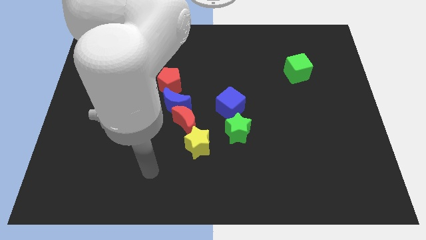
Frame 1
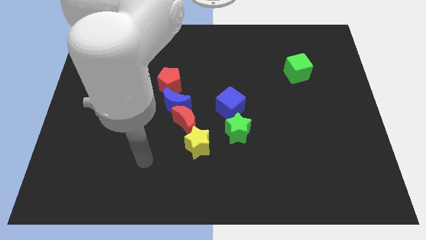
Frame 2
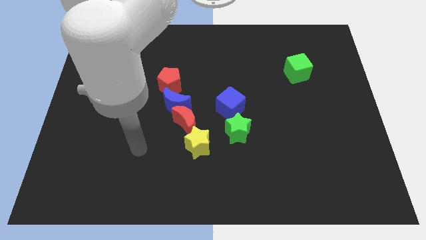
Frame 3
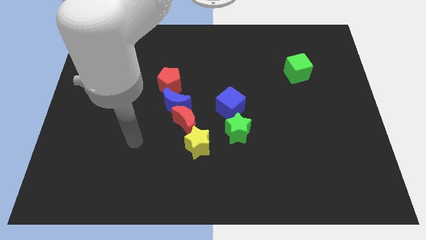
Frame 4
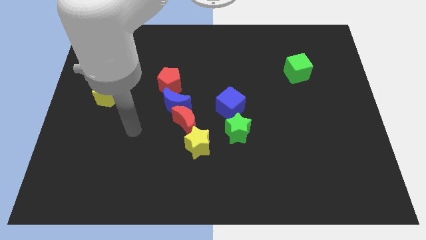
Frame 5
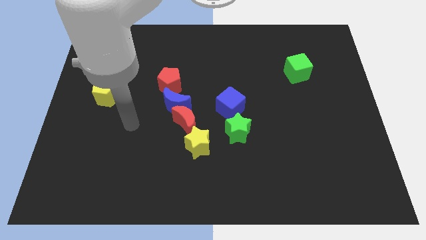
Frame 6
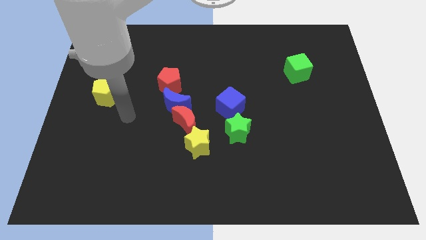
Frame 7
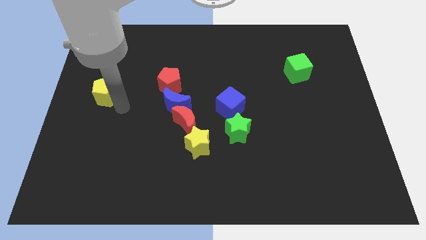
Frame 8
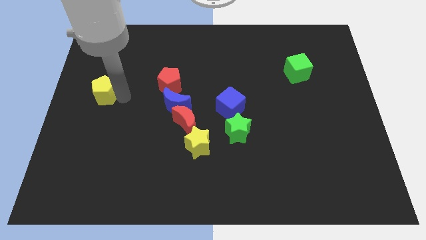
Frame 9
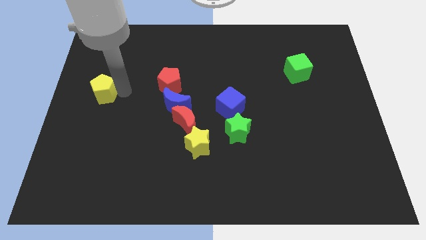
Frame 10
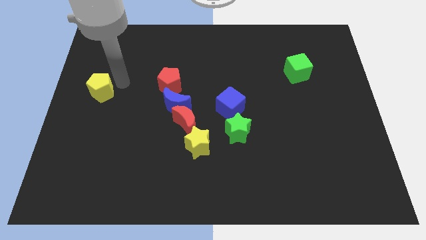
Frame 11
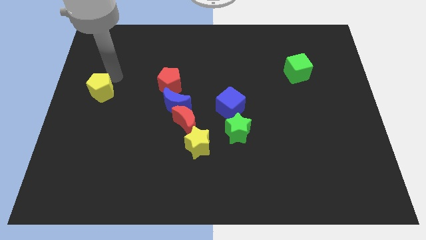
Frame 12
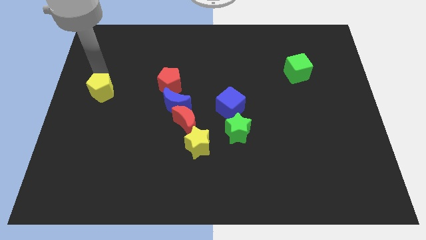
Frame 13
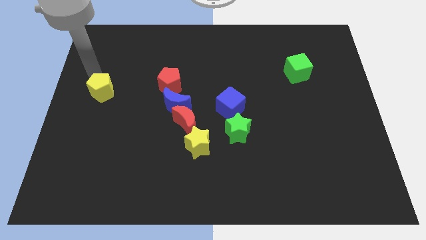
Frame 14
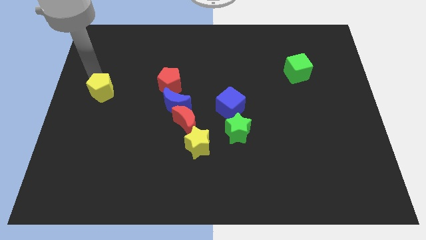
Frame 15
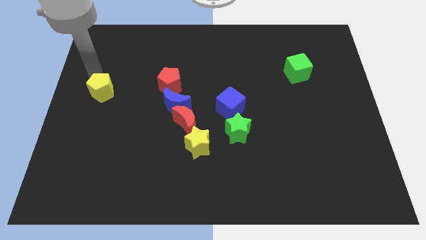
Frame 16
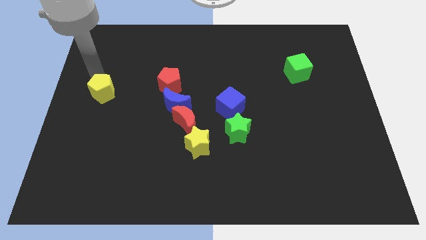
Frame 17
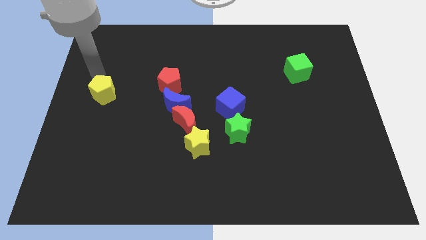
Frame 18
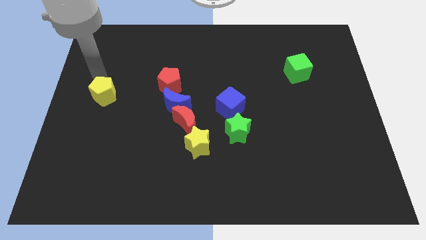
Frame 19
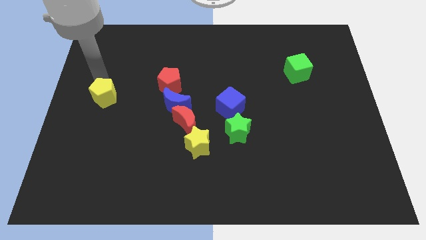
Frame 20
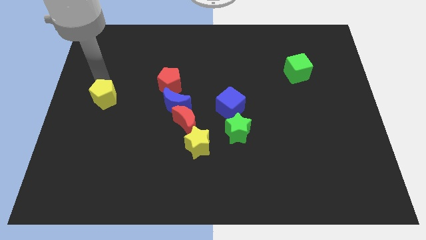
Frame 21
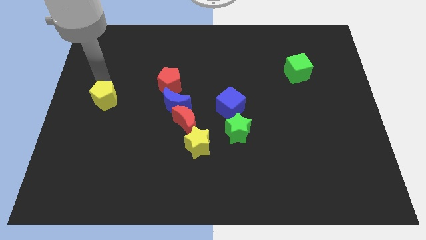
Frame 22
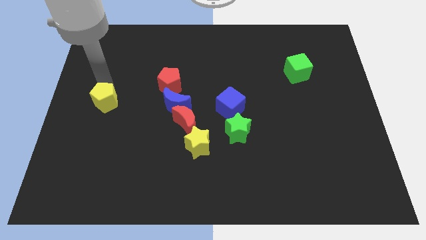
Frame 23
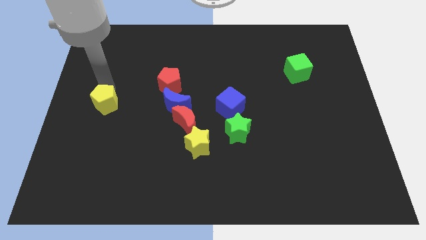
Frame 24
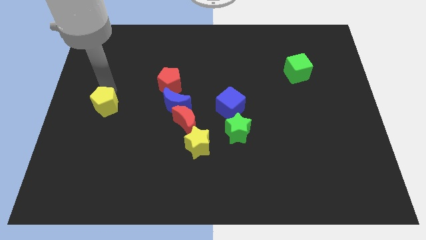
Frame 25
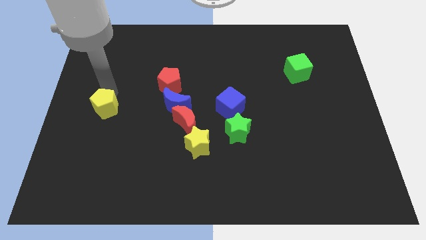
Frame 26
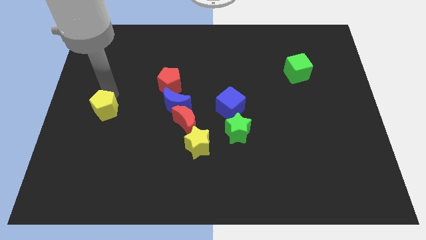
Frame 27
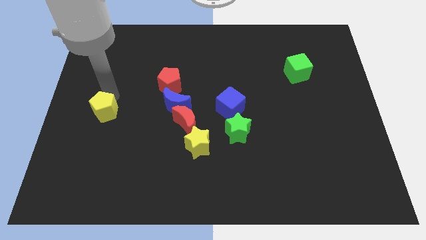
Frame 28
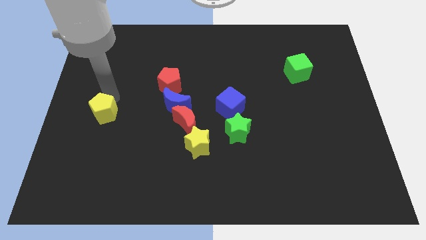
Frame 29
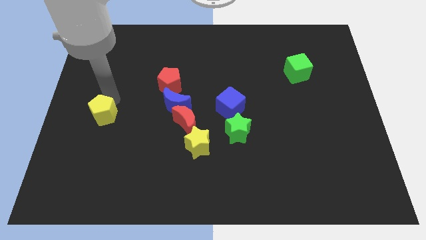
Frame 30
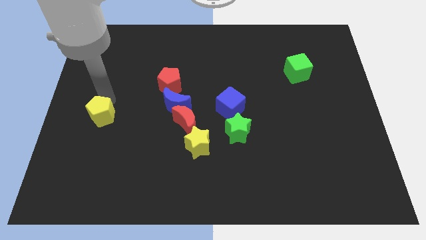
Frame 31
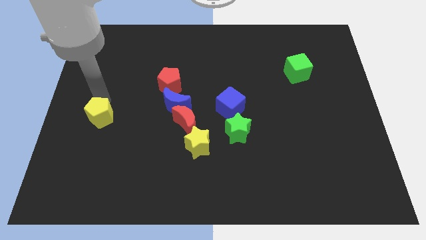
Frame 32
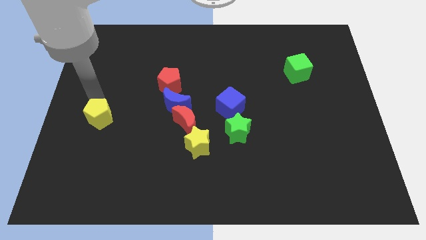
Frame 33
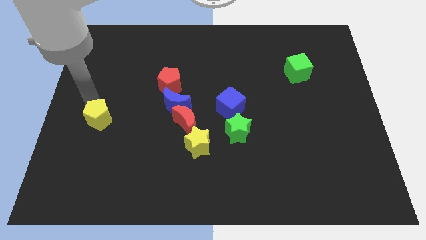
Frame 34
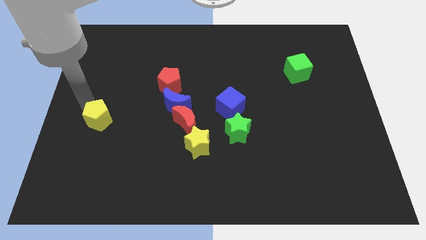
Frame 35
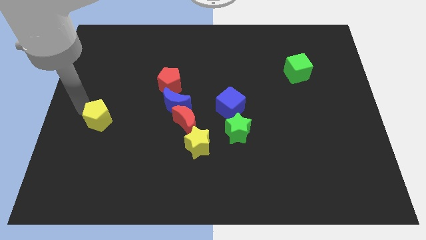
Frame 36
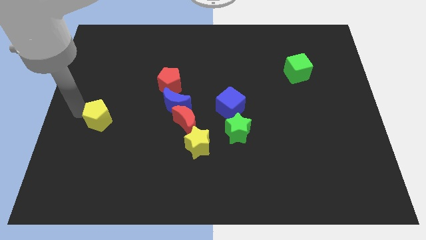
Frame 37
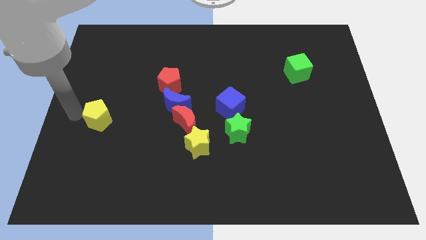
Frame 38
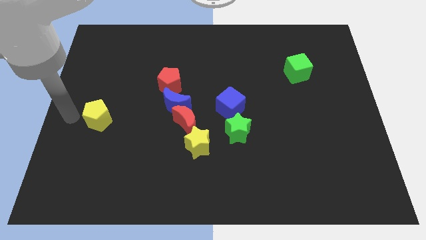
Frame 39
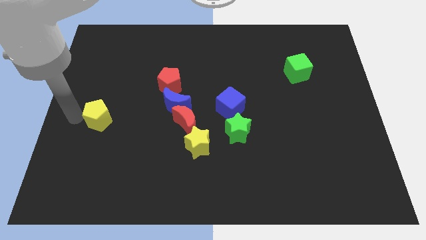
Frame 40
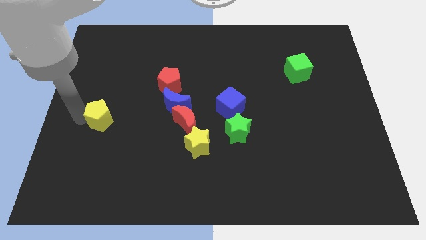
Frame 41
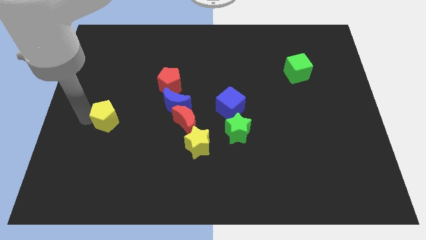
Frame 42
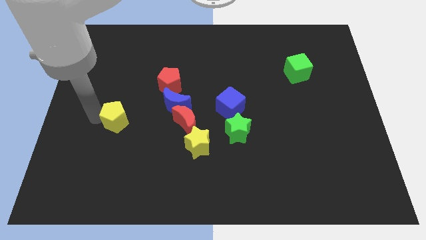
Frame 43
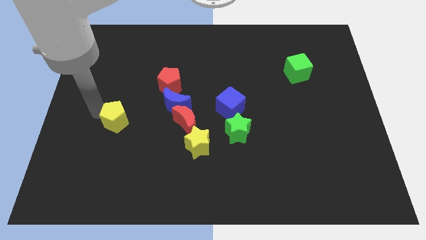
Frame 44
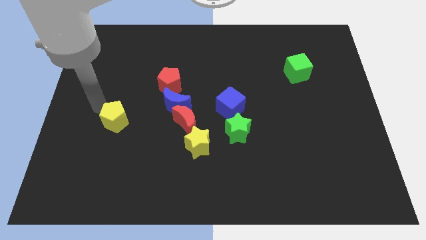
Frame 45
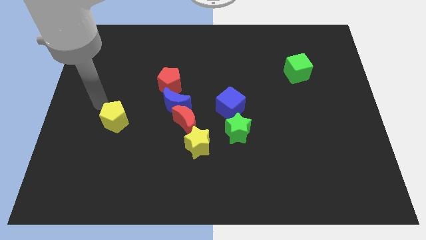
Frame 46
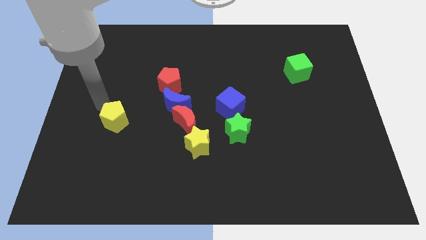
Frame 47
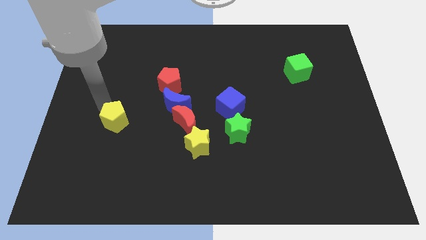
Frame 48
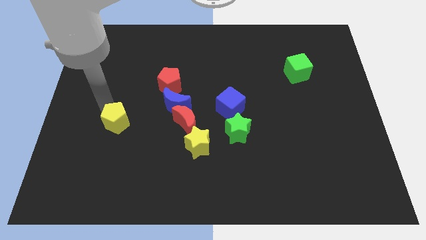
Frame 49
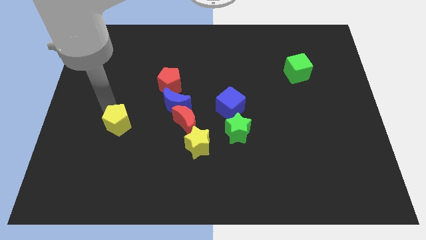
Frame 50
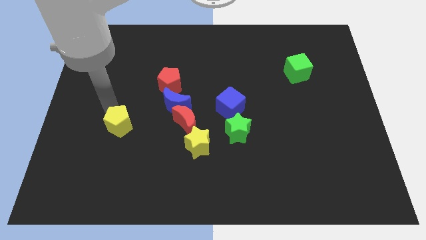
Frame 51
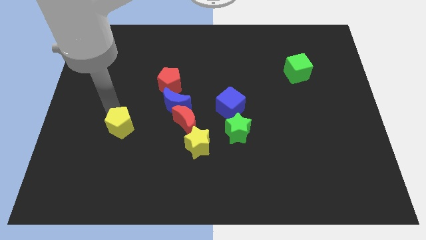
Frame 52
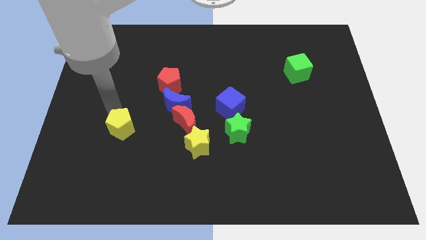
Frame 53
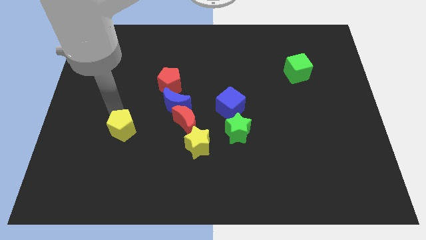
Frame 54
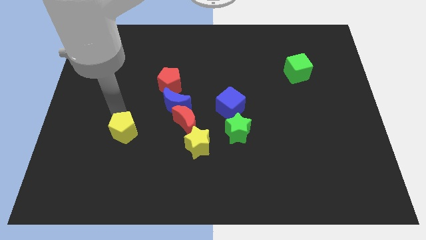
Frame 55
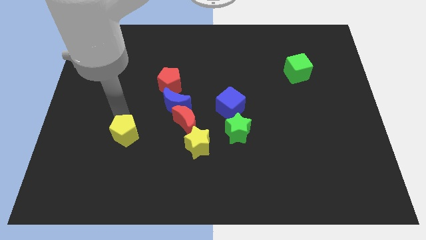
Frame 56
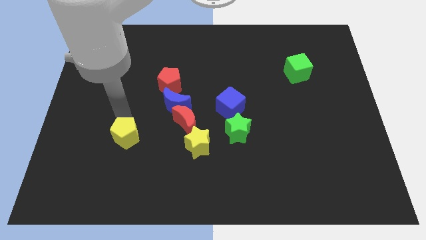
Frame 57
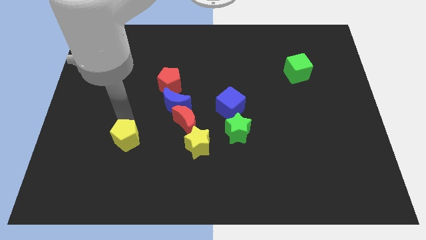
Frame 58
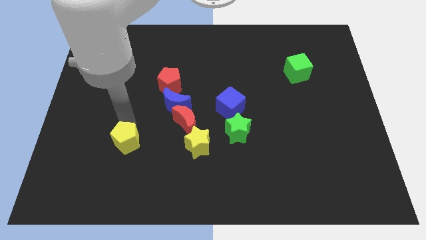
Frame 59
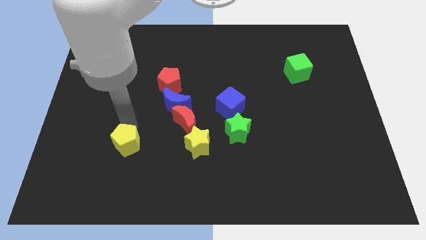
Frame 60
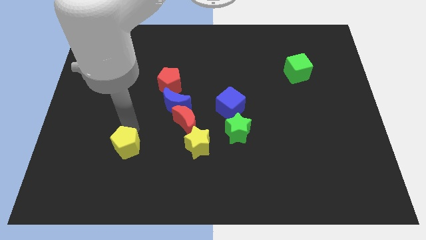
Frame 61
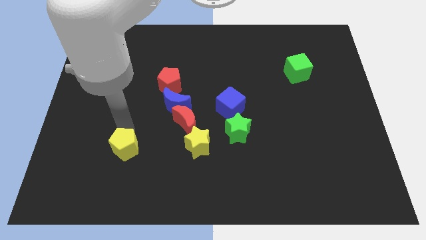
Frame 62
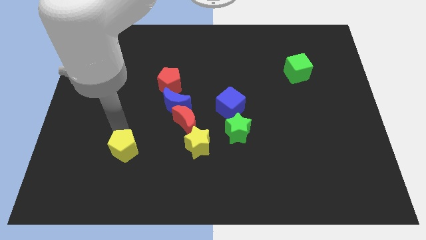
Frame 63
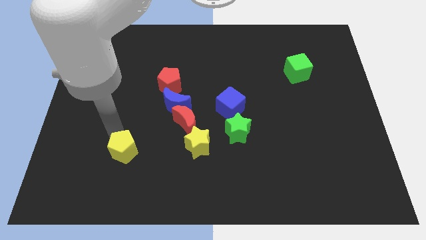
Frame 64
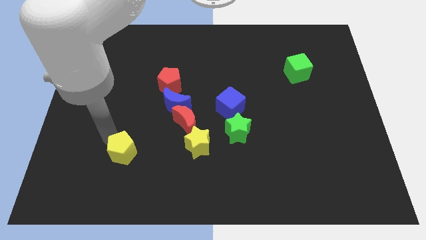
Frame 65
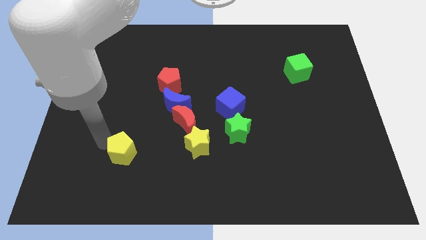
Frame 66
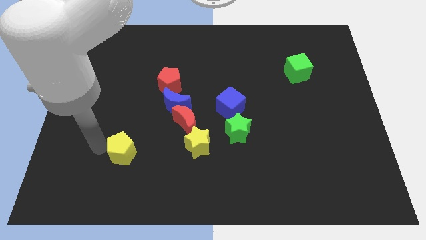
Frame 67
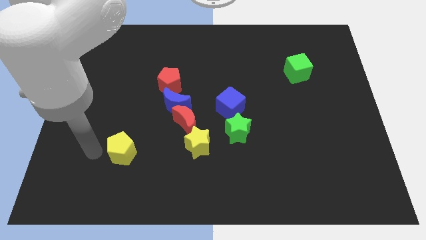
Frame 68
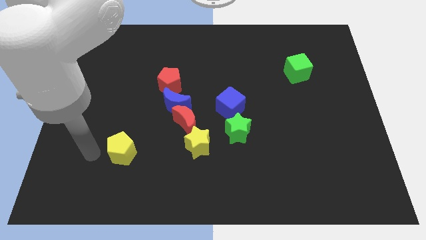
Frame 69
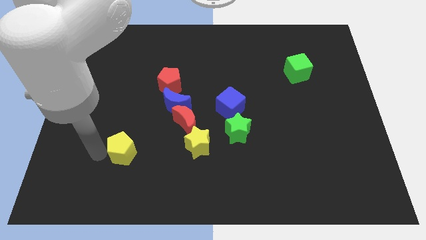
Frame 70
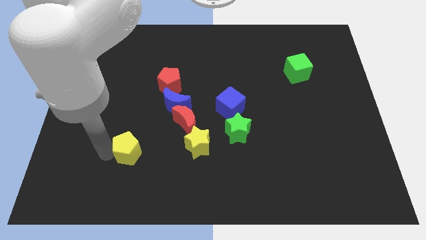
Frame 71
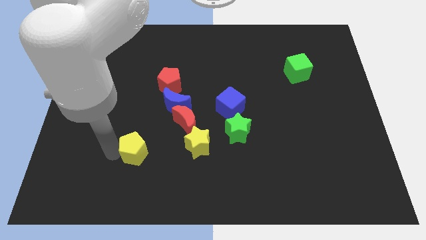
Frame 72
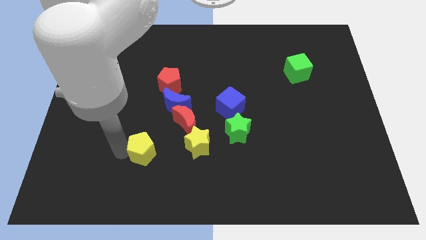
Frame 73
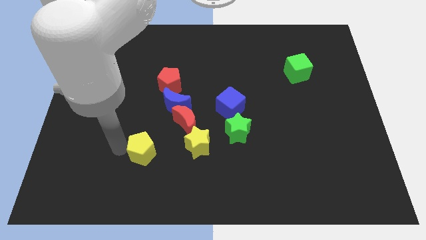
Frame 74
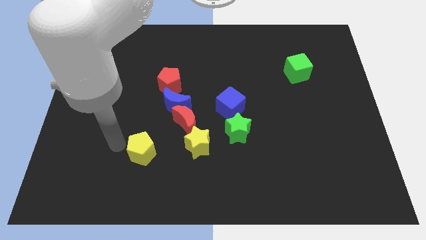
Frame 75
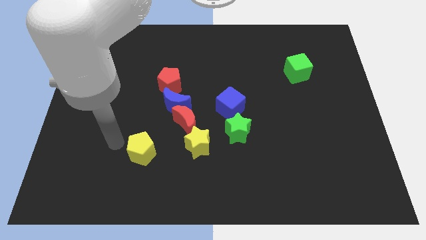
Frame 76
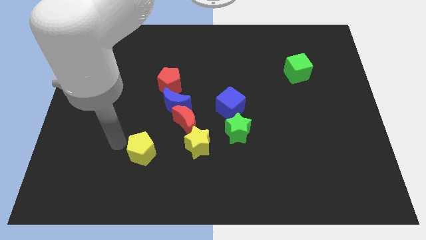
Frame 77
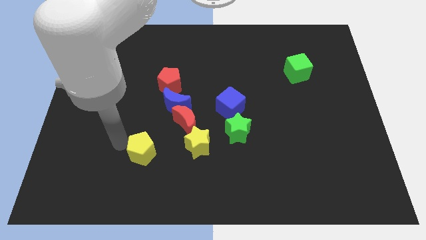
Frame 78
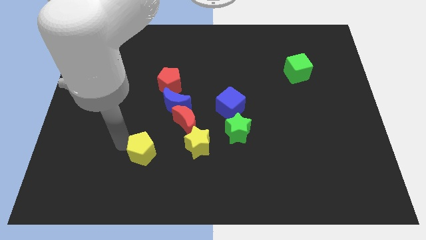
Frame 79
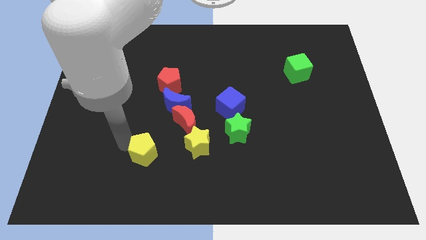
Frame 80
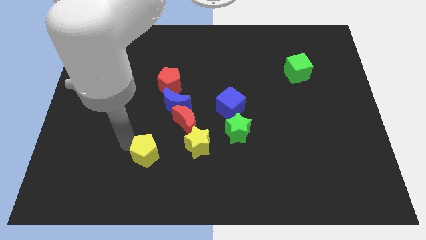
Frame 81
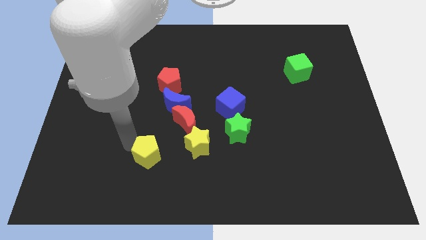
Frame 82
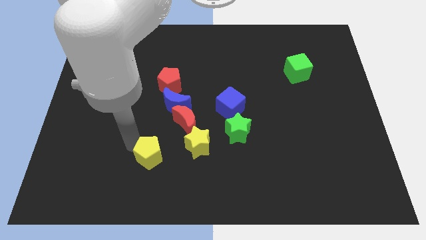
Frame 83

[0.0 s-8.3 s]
push the yellow pentagon down and then right
